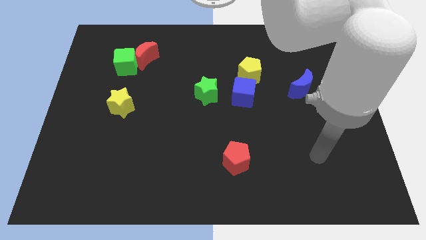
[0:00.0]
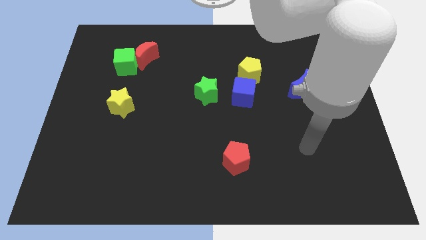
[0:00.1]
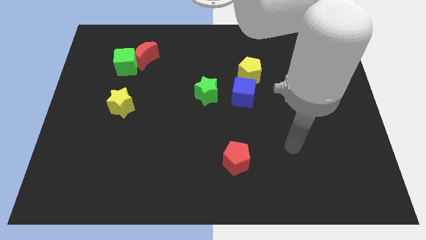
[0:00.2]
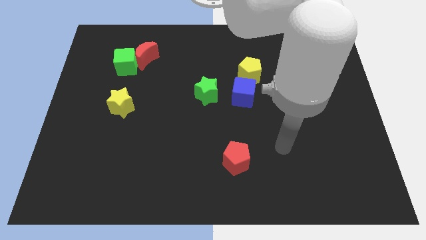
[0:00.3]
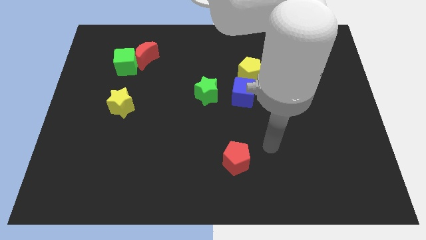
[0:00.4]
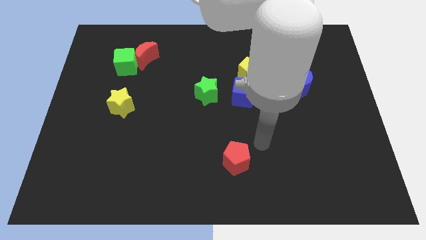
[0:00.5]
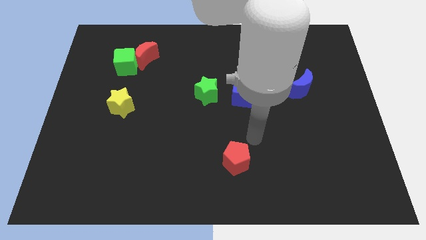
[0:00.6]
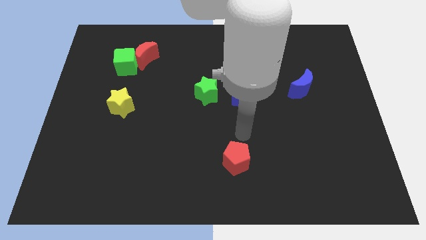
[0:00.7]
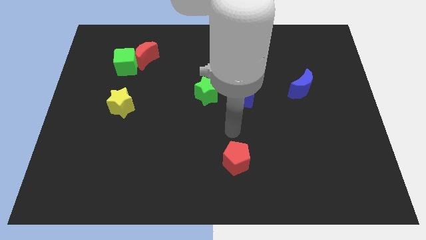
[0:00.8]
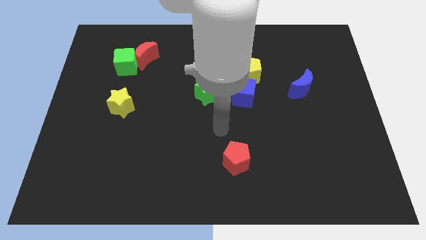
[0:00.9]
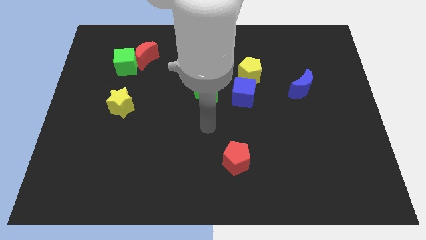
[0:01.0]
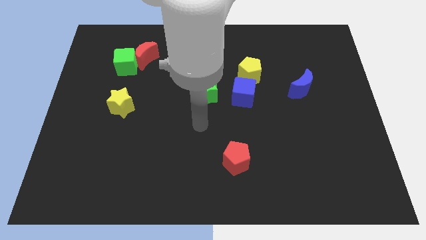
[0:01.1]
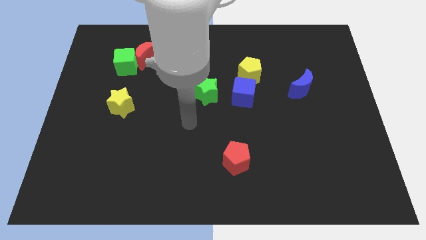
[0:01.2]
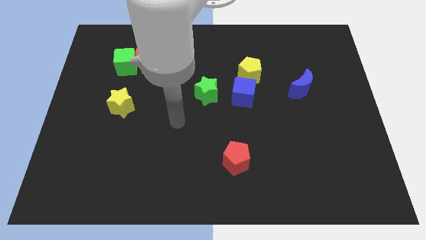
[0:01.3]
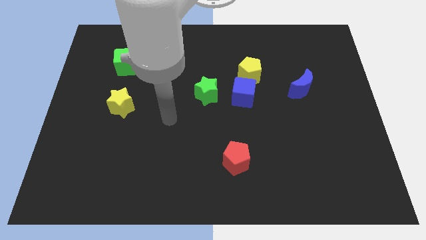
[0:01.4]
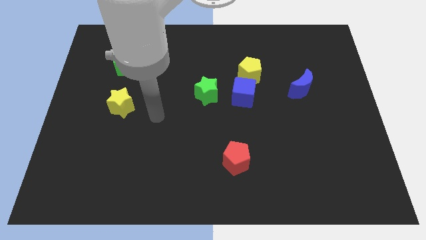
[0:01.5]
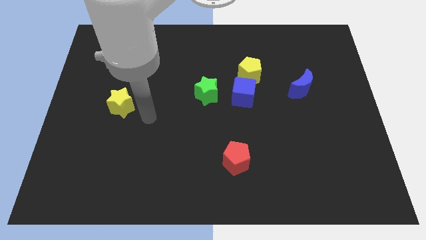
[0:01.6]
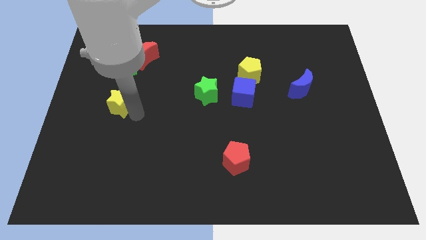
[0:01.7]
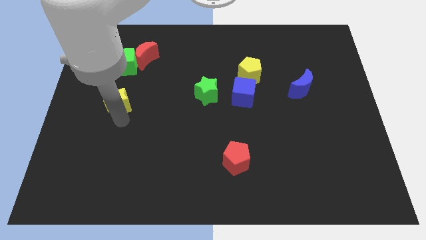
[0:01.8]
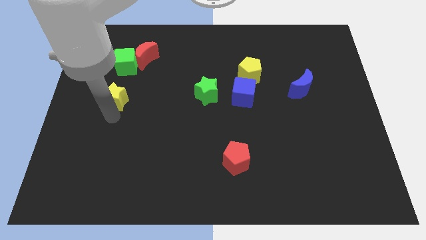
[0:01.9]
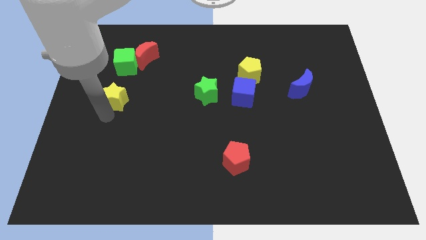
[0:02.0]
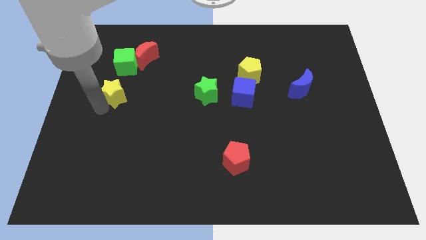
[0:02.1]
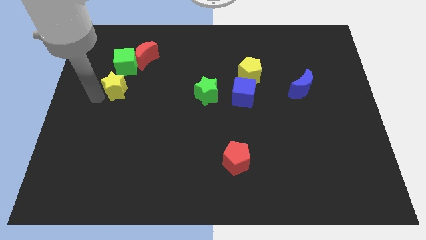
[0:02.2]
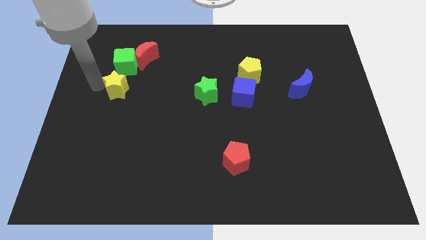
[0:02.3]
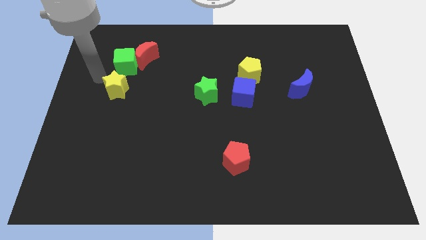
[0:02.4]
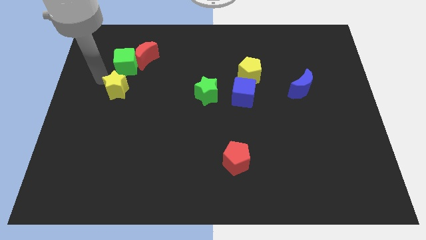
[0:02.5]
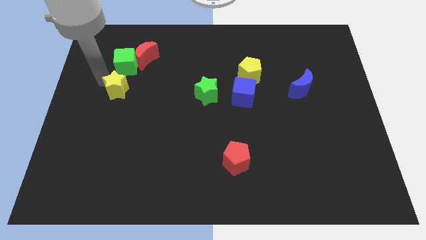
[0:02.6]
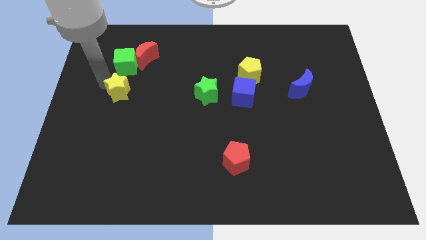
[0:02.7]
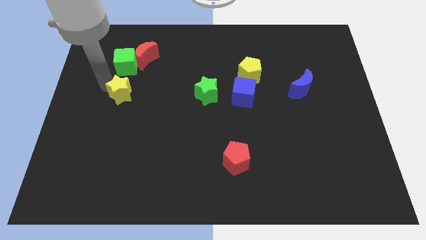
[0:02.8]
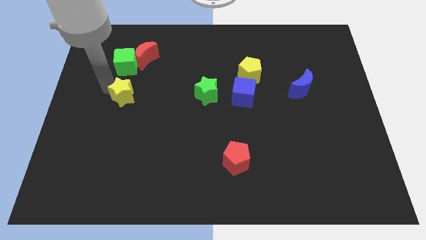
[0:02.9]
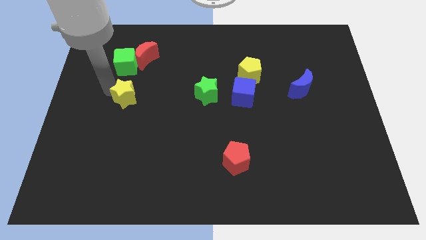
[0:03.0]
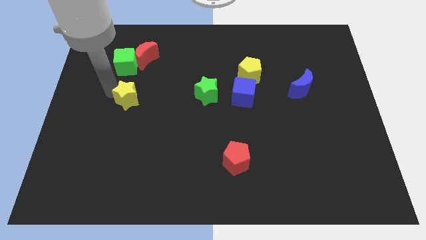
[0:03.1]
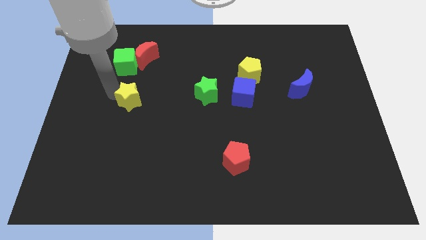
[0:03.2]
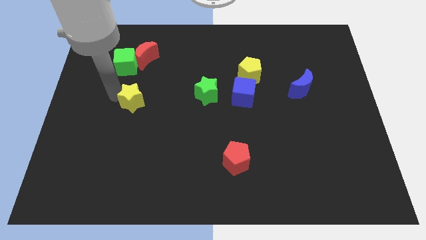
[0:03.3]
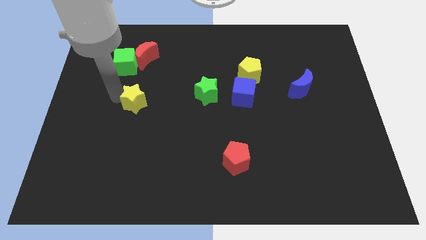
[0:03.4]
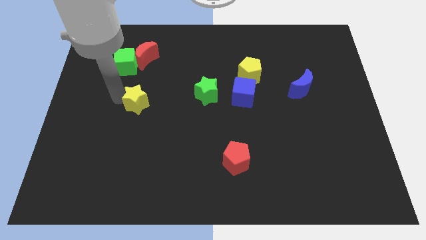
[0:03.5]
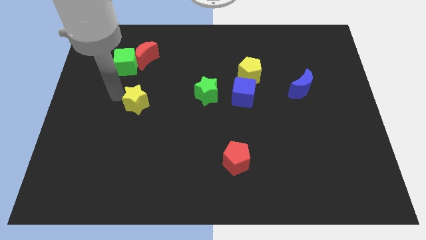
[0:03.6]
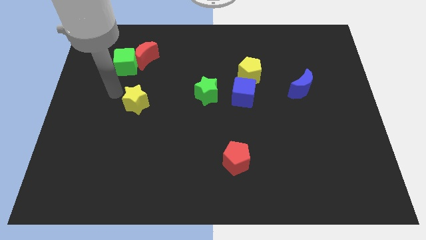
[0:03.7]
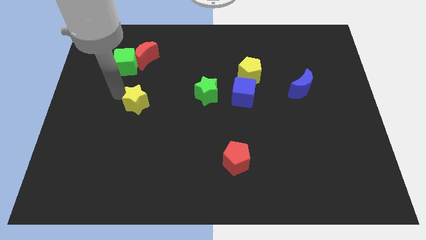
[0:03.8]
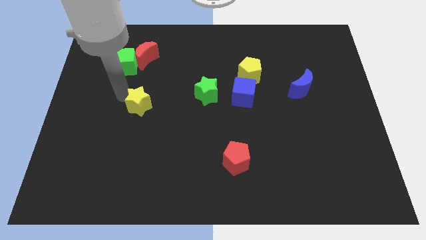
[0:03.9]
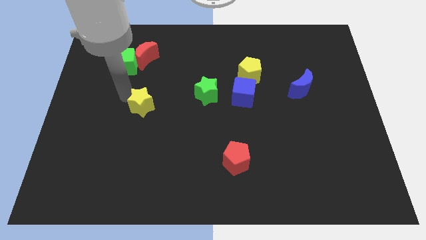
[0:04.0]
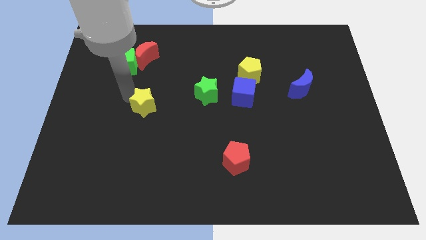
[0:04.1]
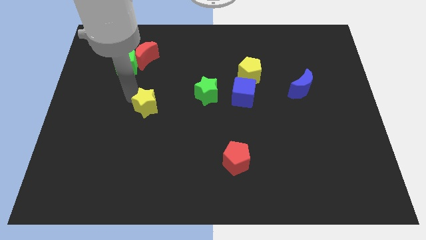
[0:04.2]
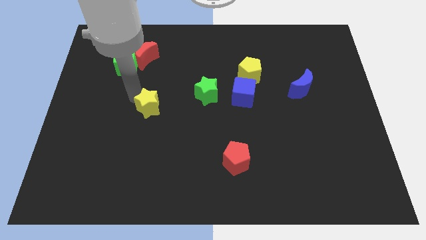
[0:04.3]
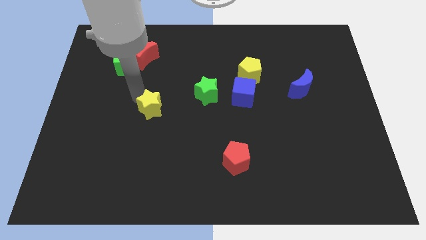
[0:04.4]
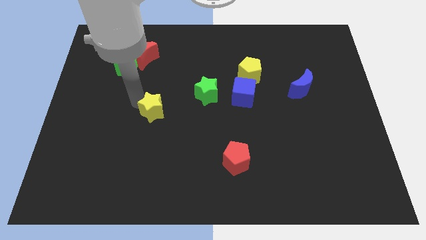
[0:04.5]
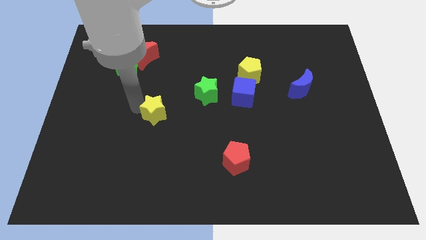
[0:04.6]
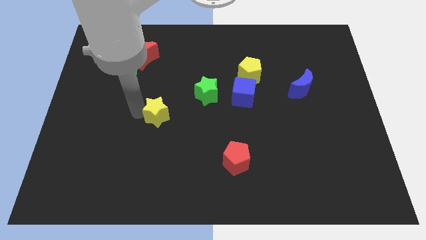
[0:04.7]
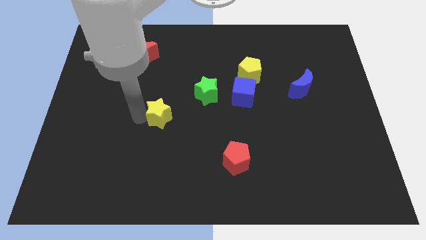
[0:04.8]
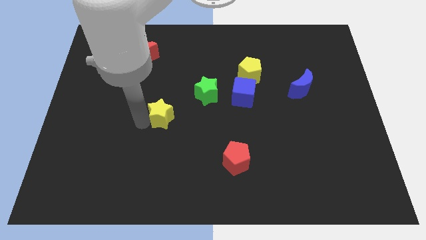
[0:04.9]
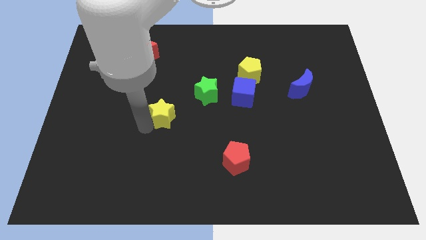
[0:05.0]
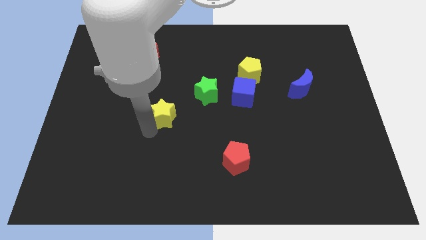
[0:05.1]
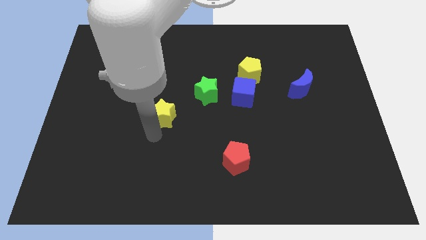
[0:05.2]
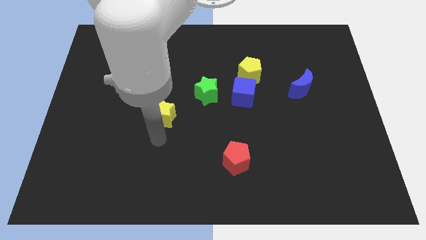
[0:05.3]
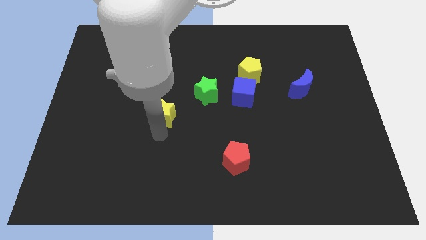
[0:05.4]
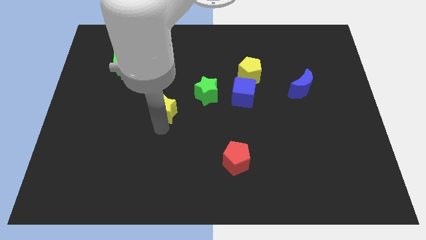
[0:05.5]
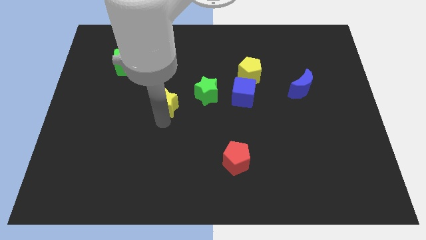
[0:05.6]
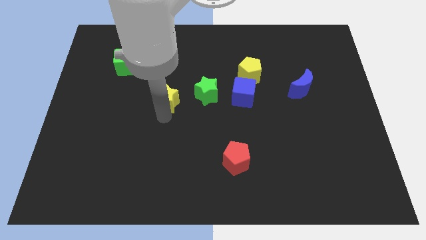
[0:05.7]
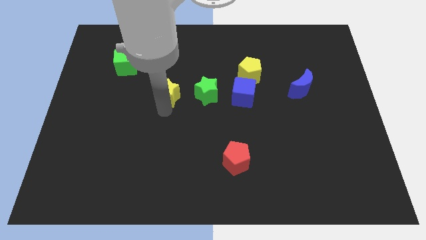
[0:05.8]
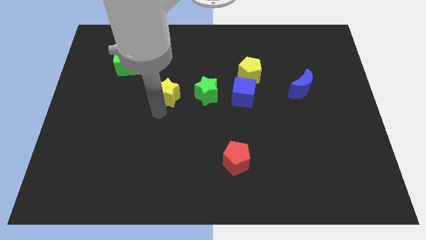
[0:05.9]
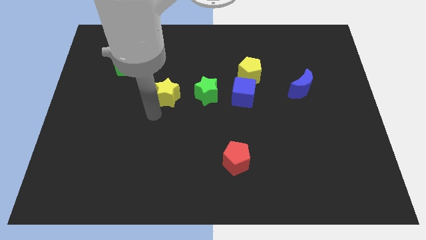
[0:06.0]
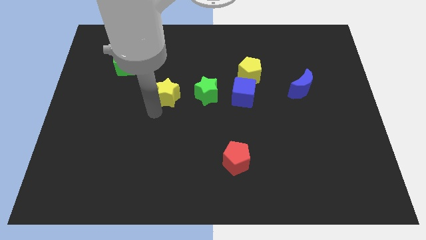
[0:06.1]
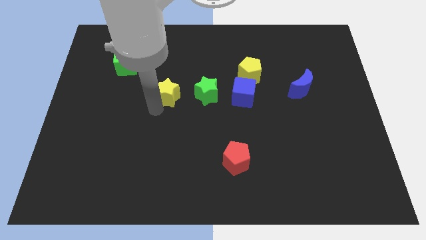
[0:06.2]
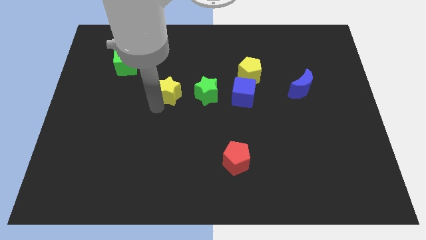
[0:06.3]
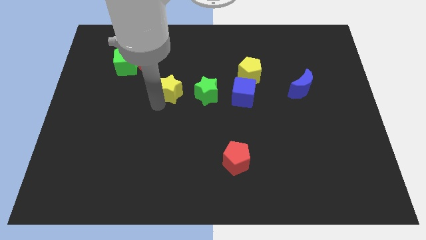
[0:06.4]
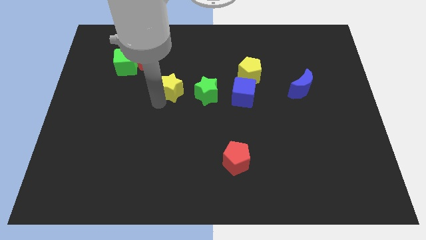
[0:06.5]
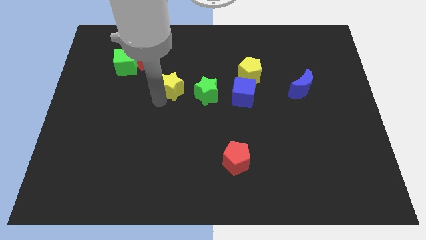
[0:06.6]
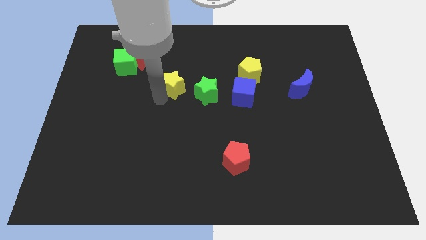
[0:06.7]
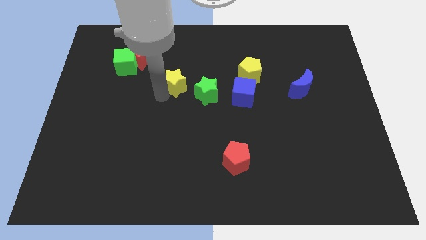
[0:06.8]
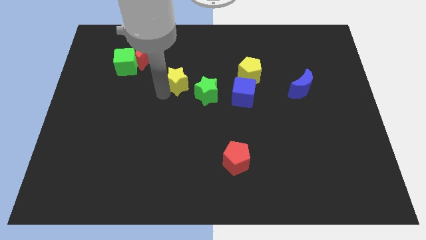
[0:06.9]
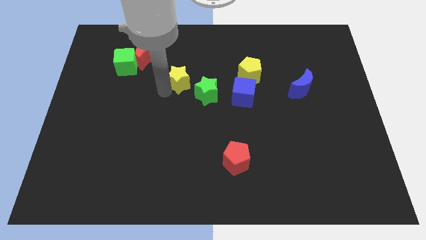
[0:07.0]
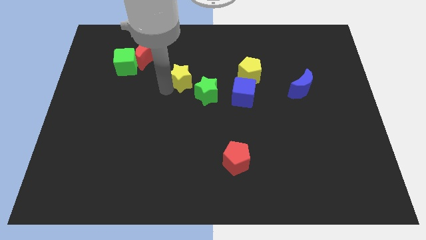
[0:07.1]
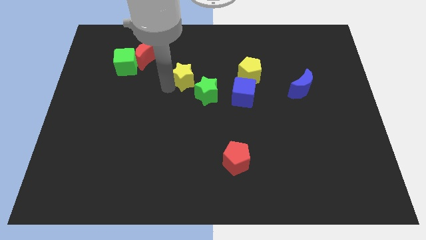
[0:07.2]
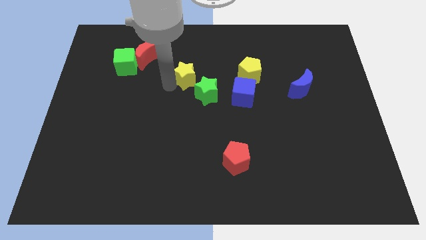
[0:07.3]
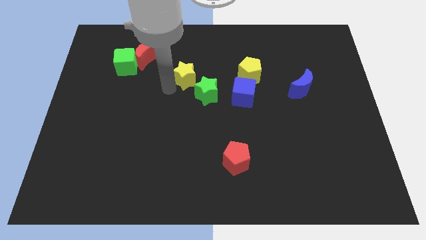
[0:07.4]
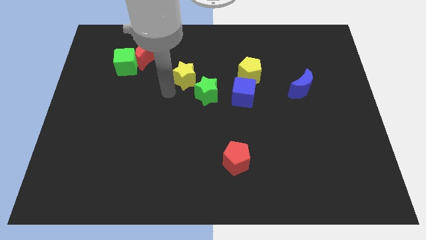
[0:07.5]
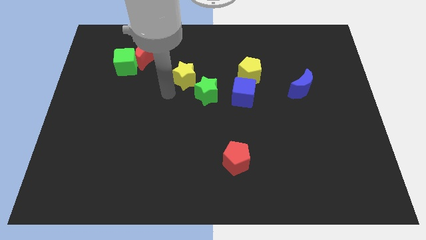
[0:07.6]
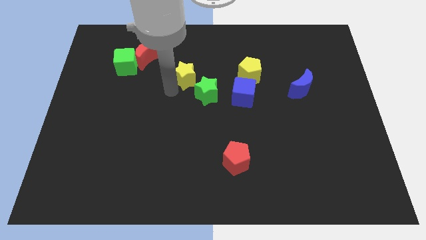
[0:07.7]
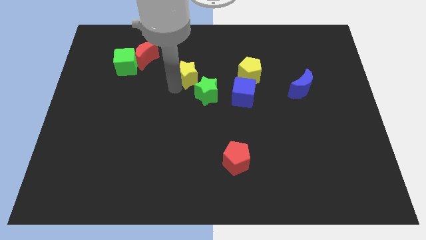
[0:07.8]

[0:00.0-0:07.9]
push the yellow star to the top side of the green star
